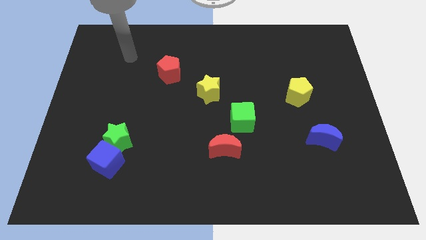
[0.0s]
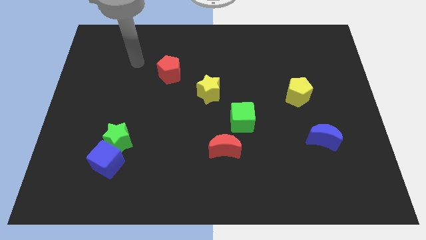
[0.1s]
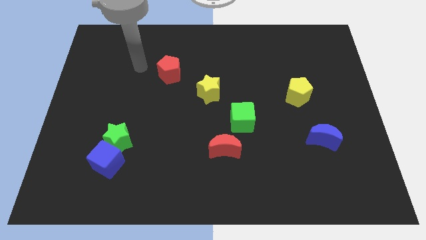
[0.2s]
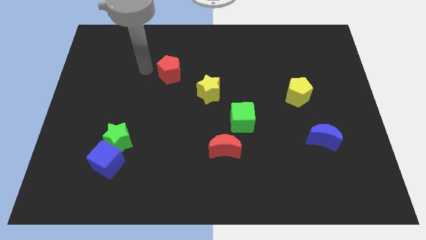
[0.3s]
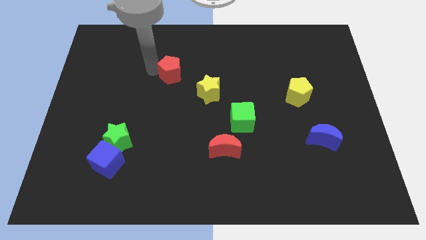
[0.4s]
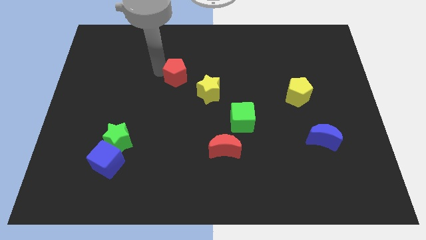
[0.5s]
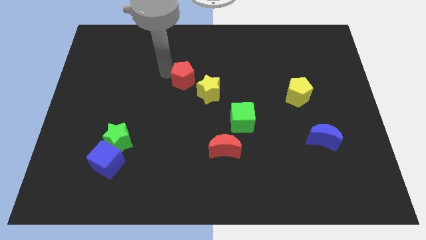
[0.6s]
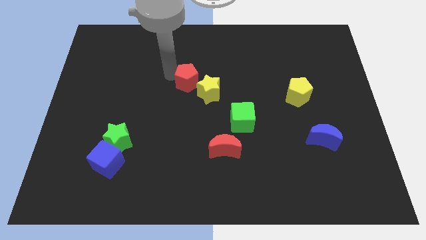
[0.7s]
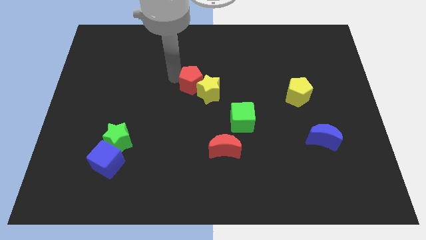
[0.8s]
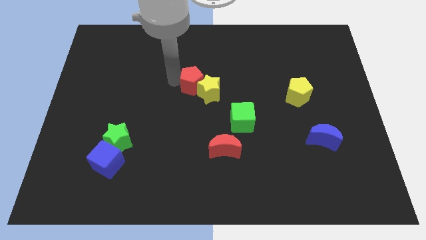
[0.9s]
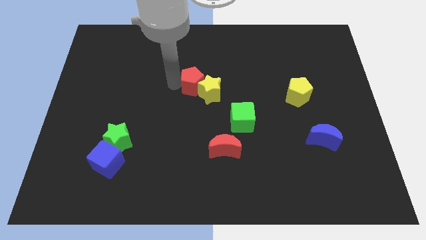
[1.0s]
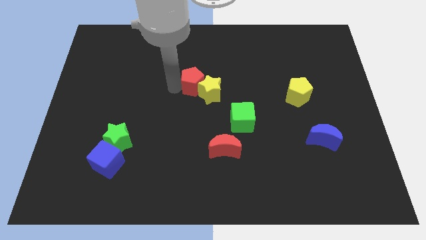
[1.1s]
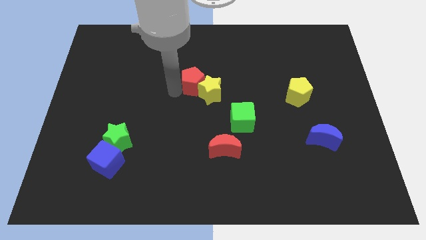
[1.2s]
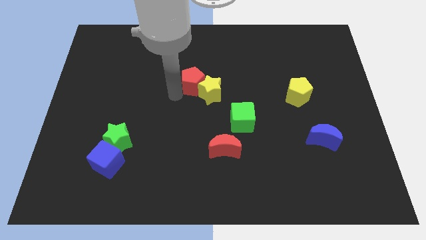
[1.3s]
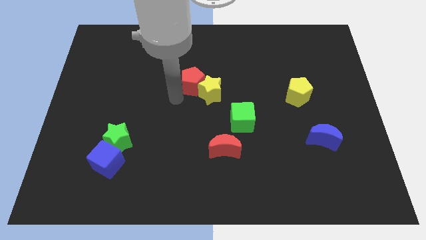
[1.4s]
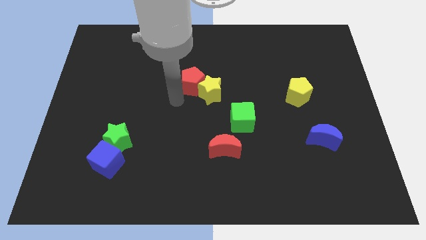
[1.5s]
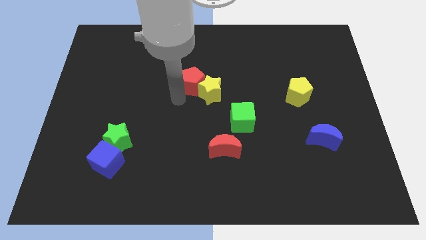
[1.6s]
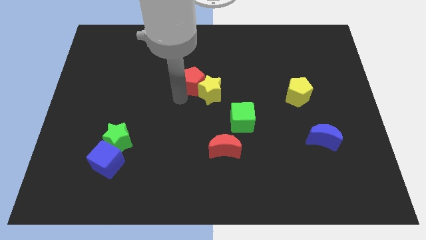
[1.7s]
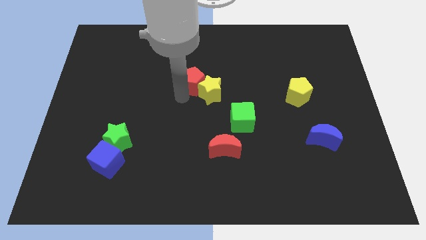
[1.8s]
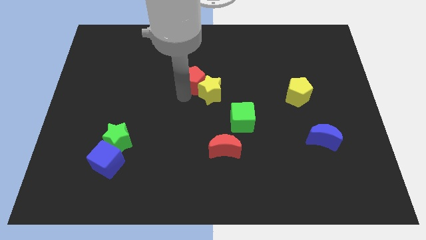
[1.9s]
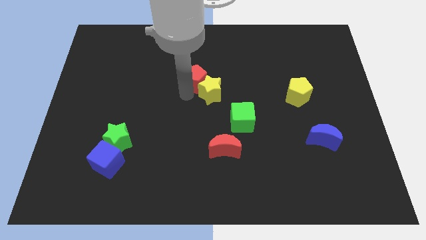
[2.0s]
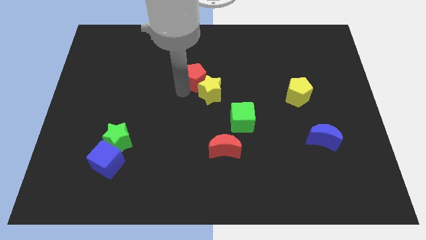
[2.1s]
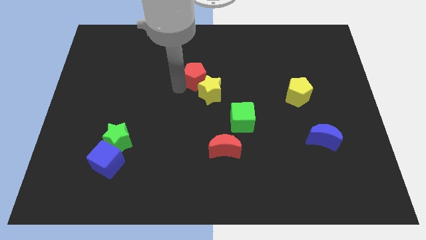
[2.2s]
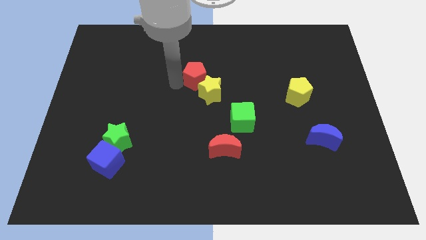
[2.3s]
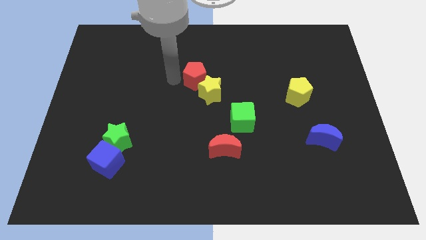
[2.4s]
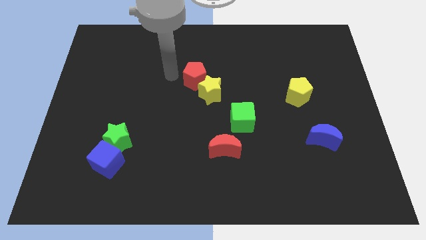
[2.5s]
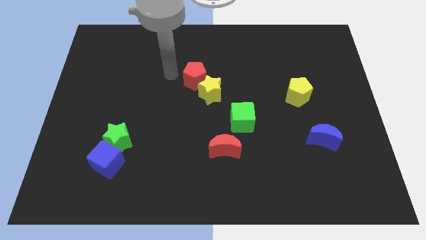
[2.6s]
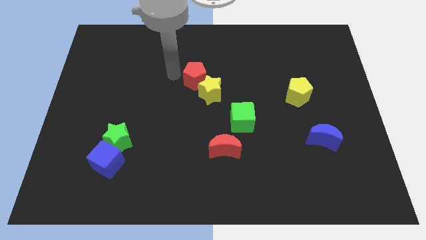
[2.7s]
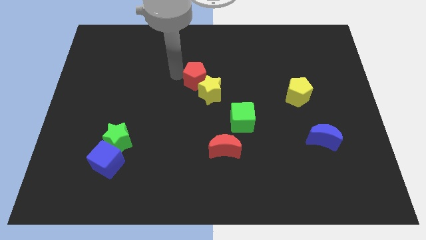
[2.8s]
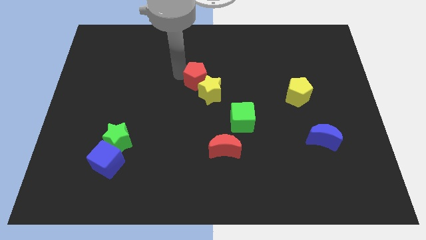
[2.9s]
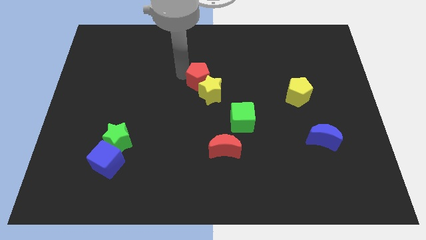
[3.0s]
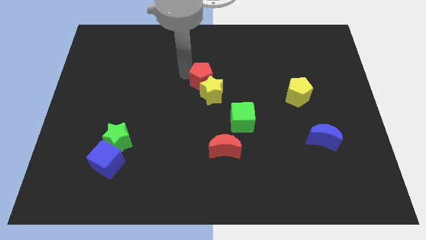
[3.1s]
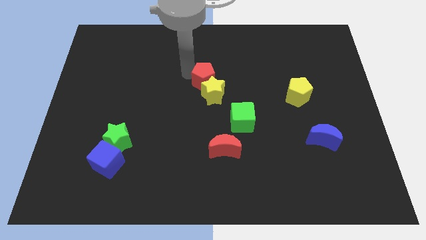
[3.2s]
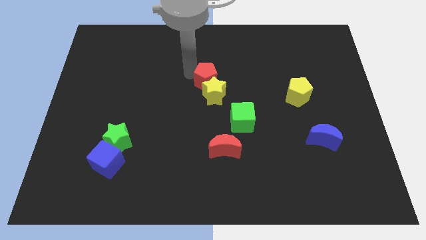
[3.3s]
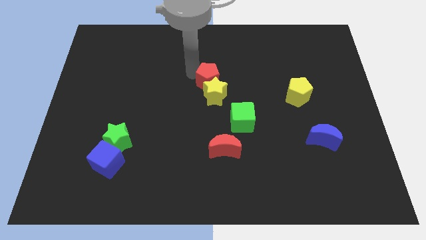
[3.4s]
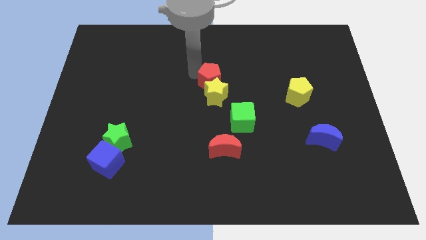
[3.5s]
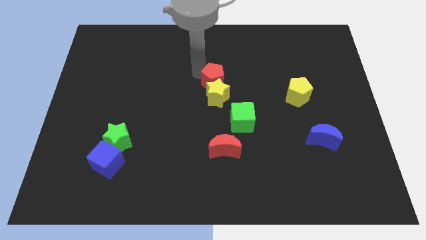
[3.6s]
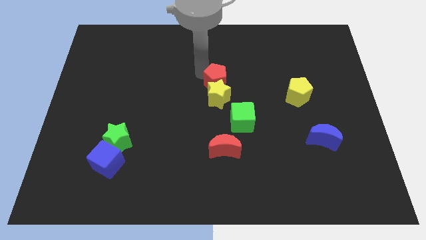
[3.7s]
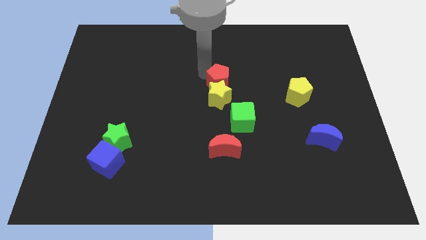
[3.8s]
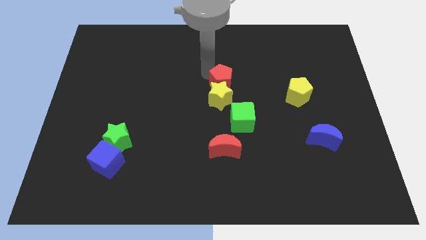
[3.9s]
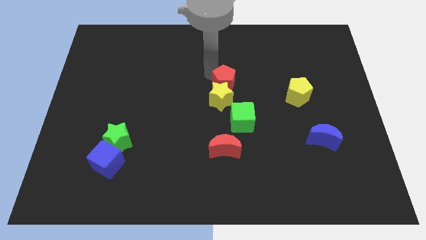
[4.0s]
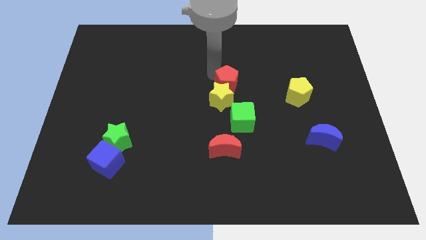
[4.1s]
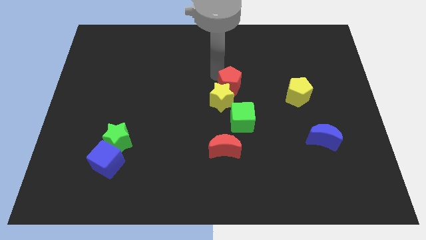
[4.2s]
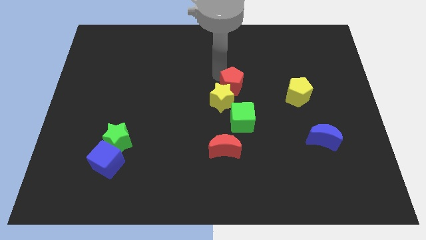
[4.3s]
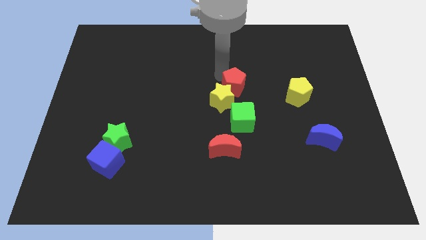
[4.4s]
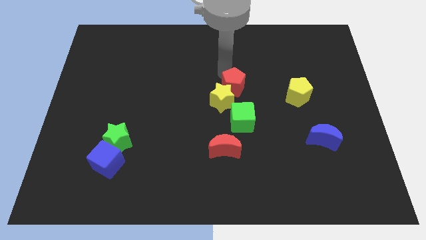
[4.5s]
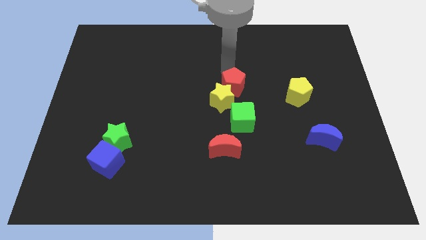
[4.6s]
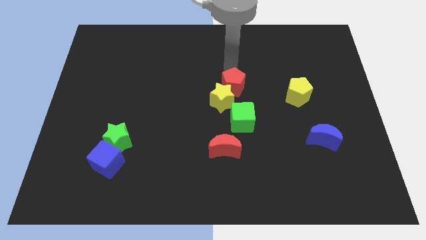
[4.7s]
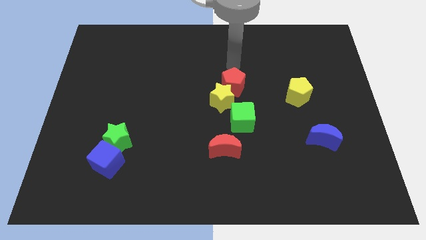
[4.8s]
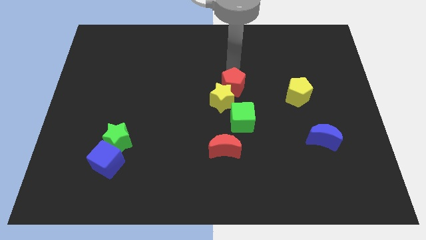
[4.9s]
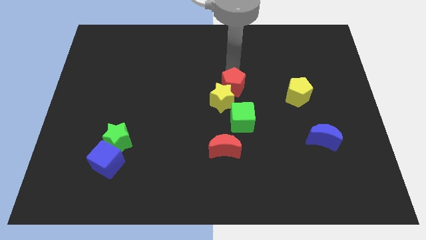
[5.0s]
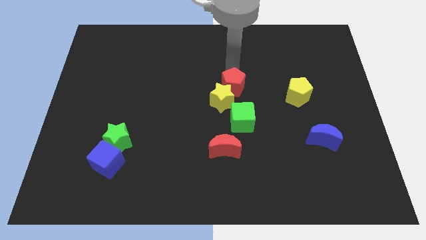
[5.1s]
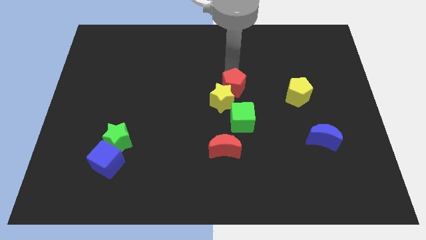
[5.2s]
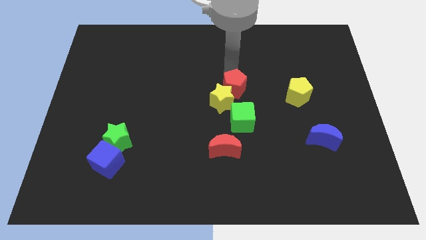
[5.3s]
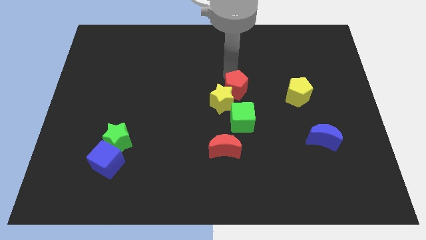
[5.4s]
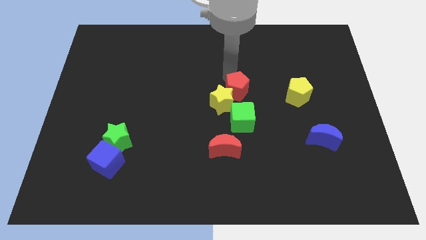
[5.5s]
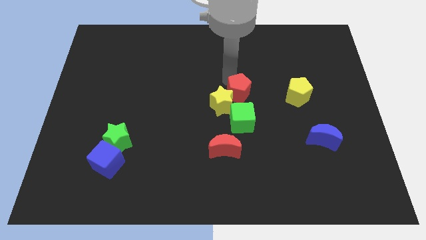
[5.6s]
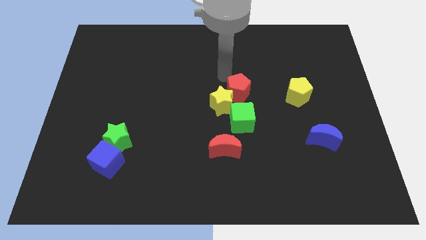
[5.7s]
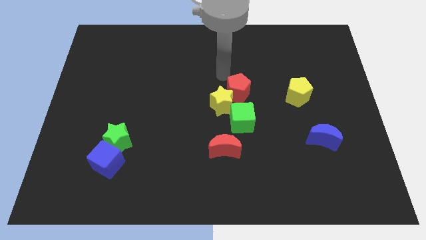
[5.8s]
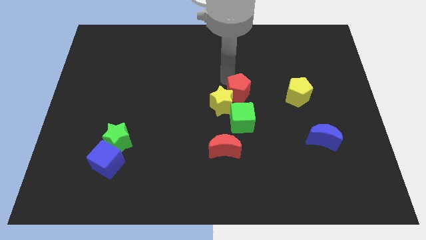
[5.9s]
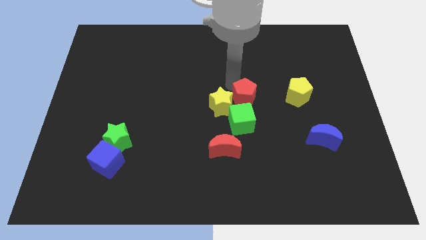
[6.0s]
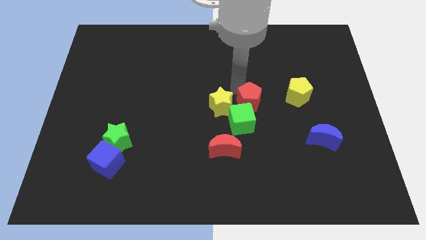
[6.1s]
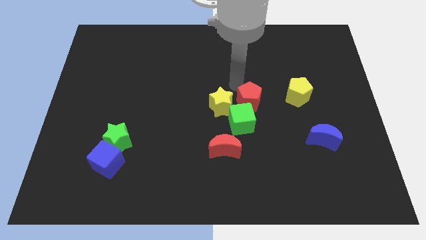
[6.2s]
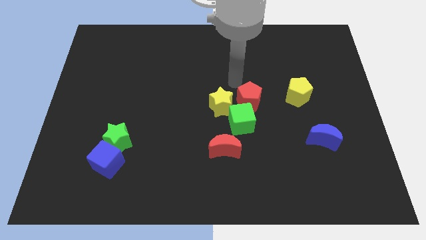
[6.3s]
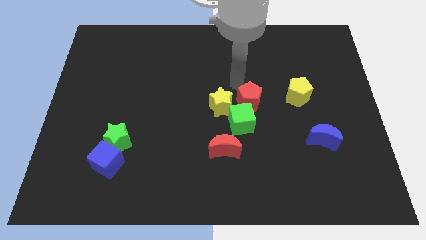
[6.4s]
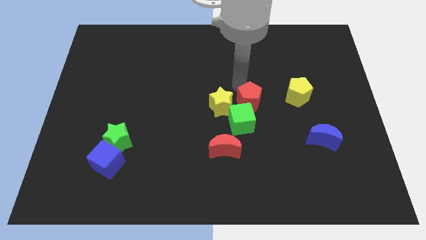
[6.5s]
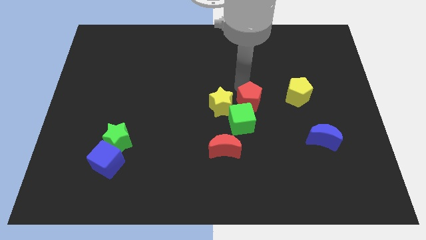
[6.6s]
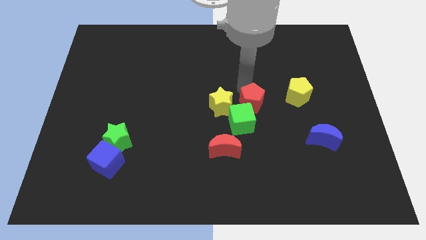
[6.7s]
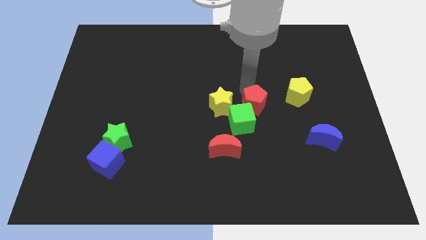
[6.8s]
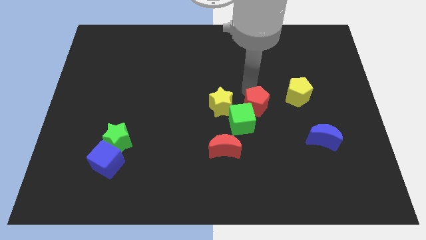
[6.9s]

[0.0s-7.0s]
move the red pentagon down and right

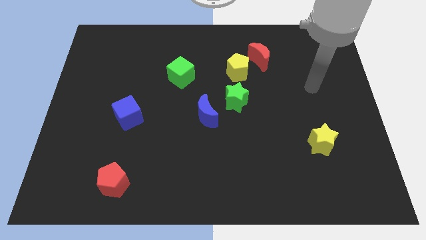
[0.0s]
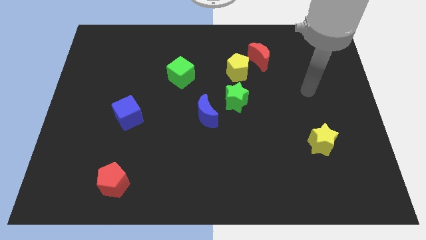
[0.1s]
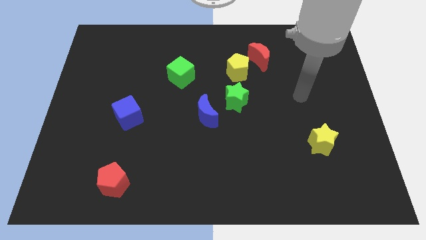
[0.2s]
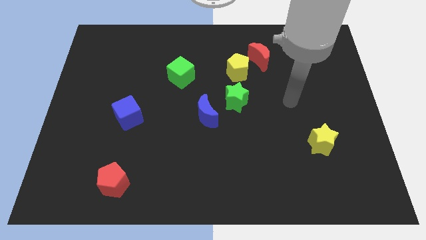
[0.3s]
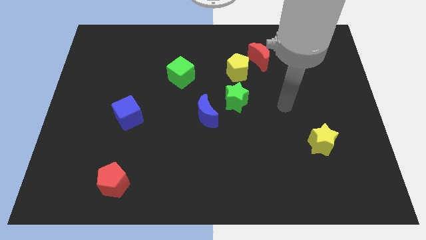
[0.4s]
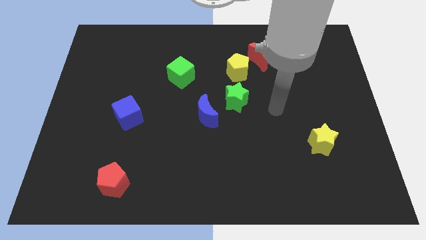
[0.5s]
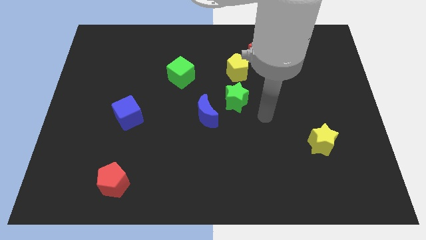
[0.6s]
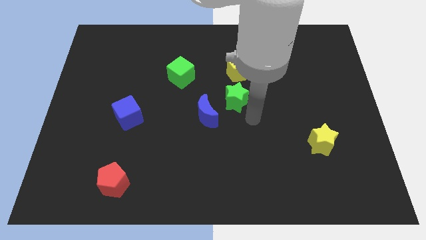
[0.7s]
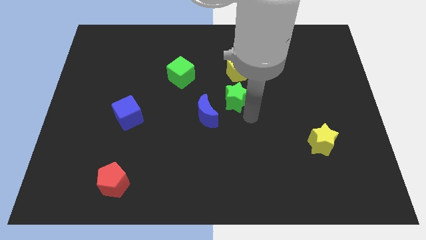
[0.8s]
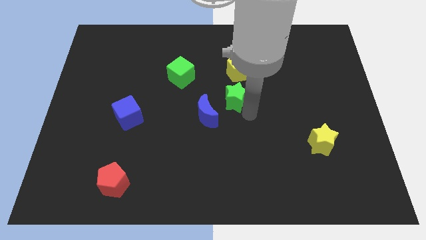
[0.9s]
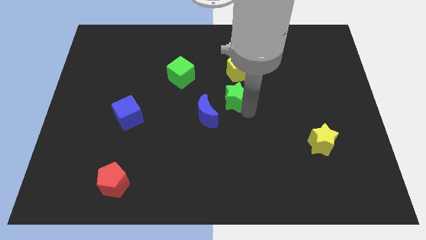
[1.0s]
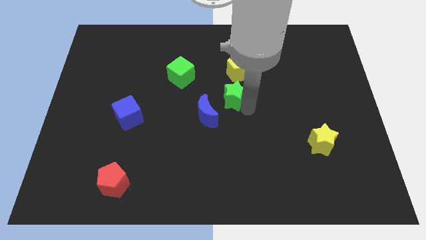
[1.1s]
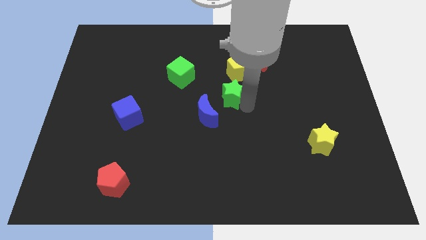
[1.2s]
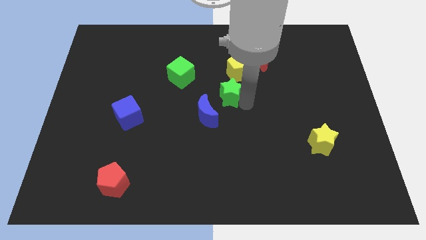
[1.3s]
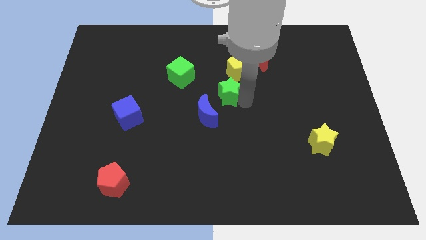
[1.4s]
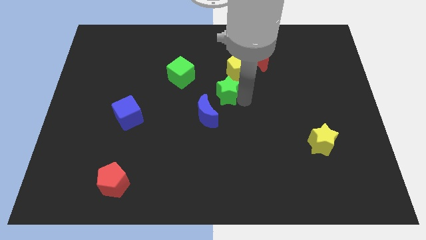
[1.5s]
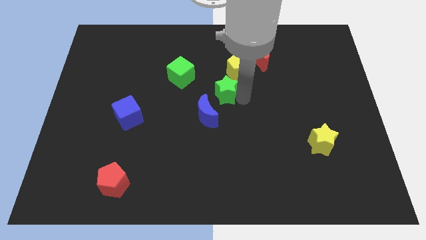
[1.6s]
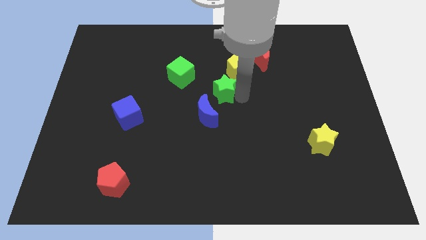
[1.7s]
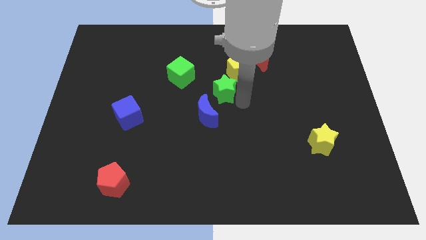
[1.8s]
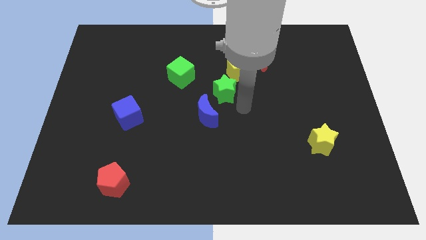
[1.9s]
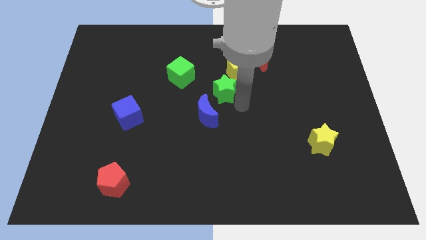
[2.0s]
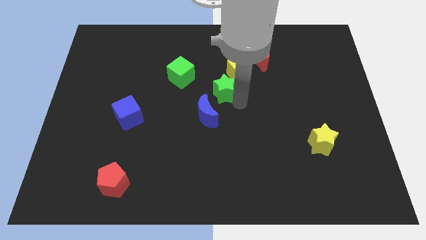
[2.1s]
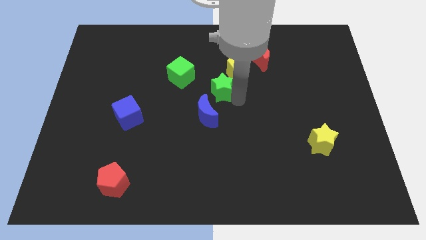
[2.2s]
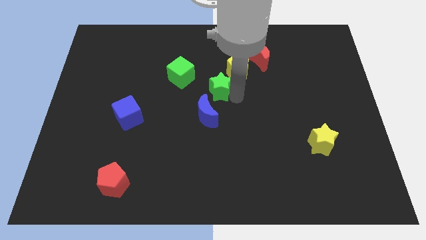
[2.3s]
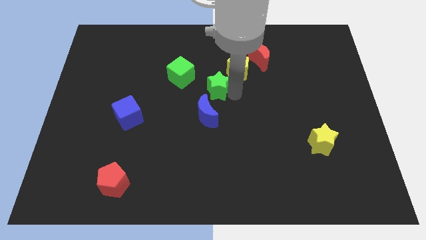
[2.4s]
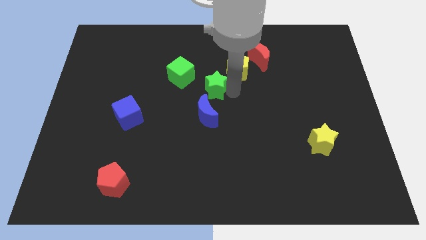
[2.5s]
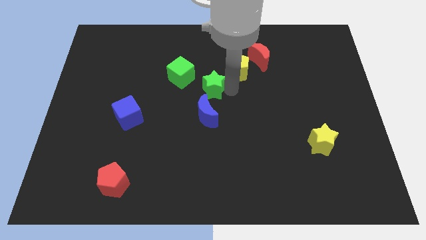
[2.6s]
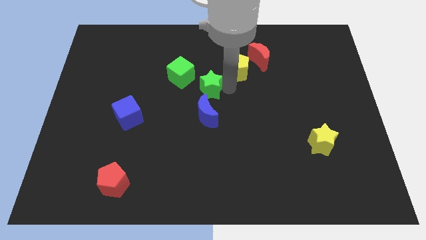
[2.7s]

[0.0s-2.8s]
slide the green star upwards and to the left a bit
